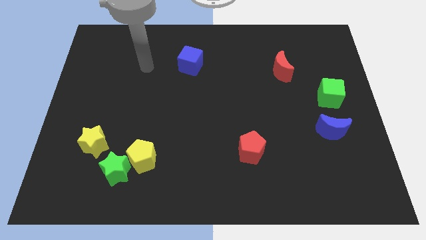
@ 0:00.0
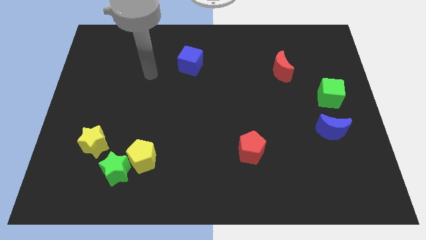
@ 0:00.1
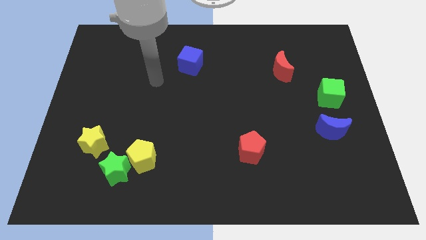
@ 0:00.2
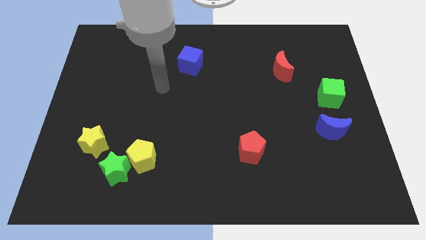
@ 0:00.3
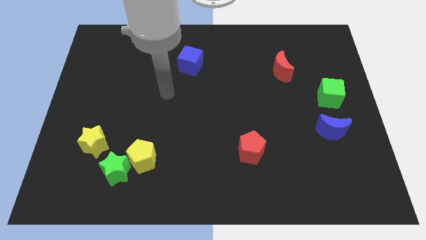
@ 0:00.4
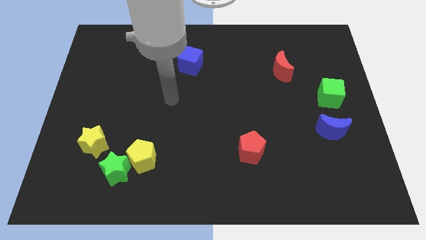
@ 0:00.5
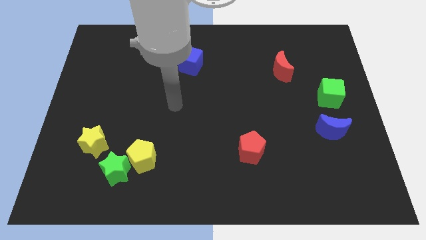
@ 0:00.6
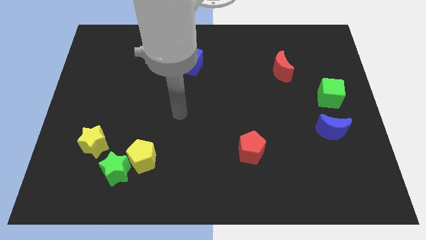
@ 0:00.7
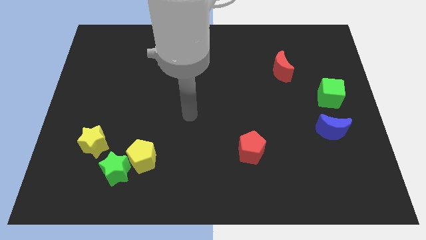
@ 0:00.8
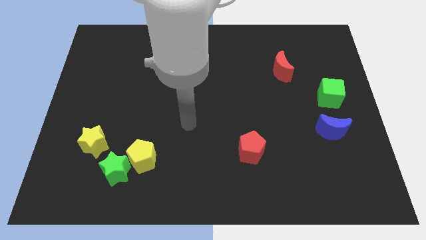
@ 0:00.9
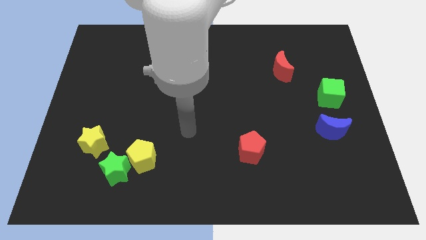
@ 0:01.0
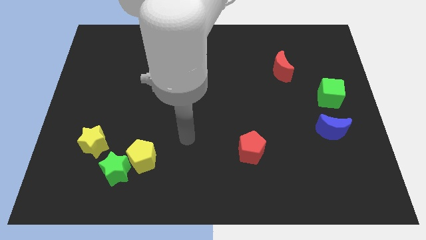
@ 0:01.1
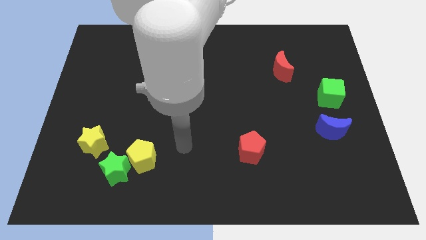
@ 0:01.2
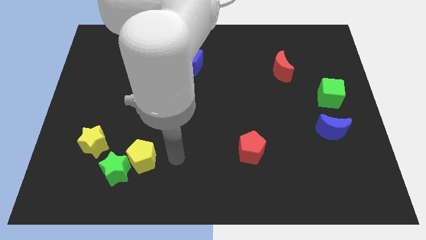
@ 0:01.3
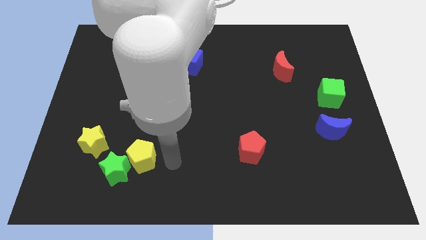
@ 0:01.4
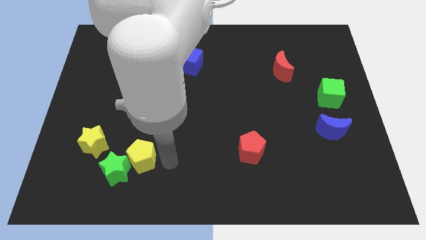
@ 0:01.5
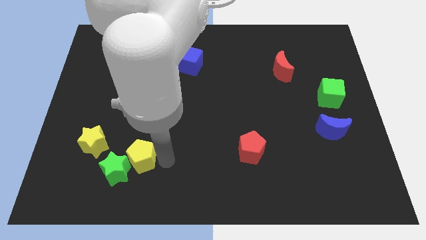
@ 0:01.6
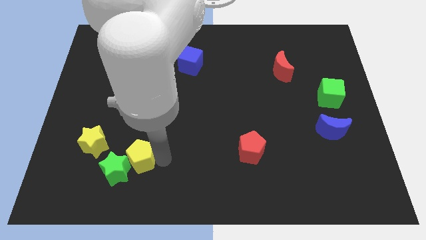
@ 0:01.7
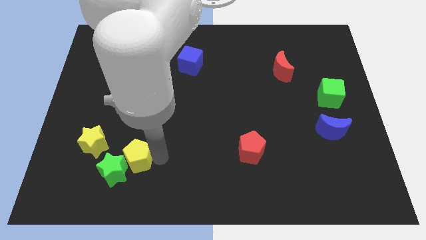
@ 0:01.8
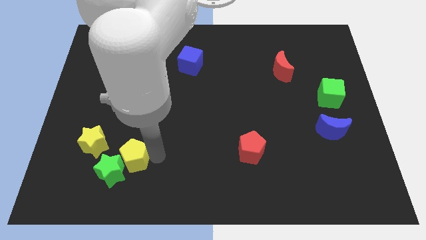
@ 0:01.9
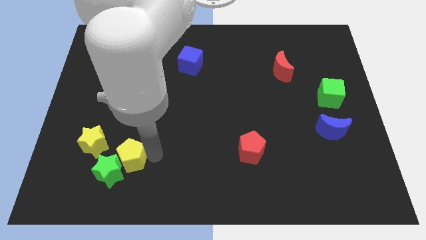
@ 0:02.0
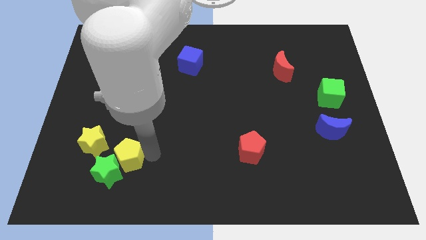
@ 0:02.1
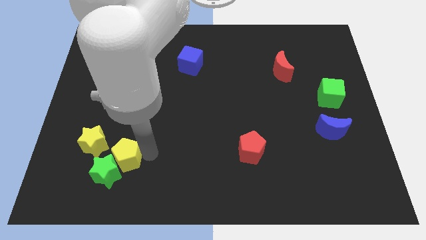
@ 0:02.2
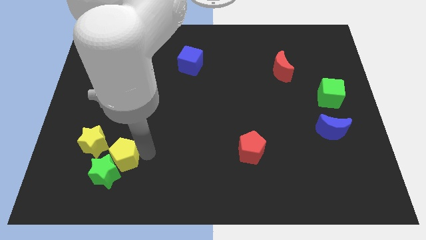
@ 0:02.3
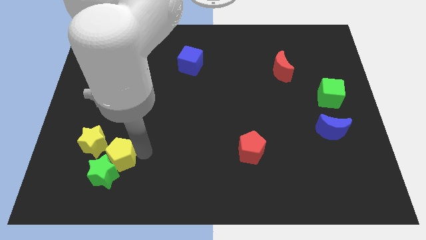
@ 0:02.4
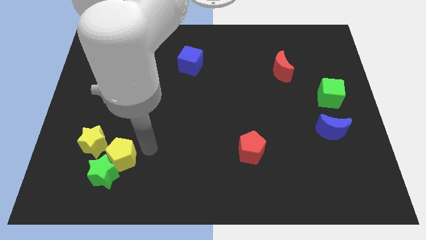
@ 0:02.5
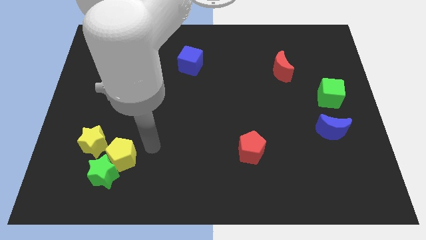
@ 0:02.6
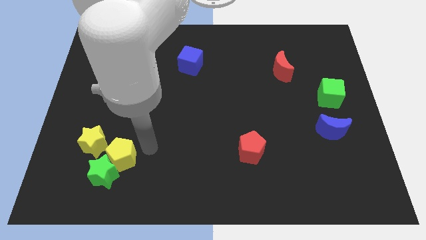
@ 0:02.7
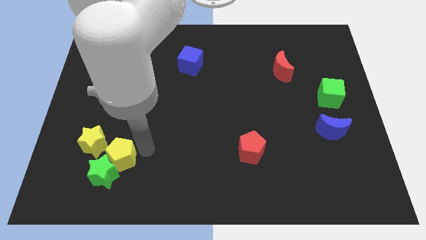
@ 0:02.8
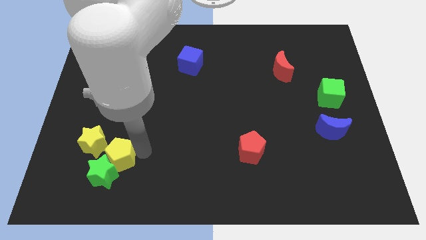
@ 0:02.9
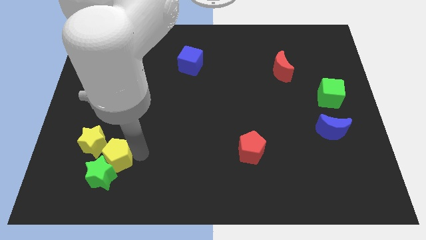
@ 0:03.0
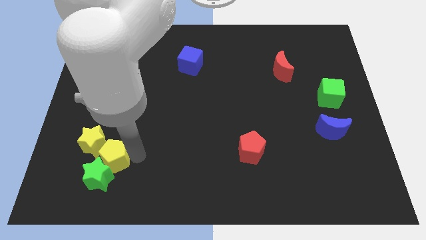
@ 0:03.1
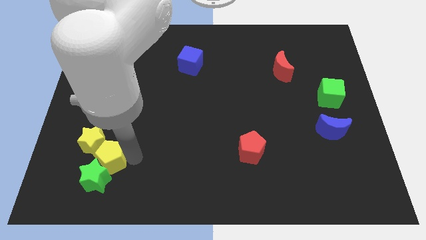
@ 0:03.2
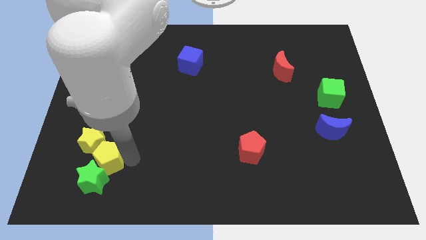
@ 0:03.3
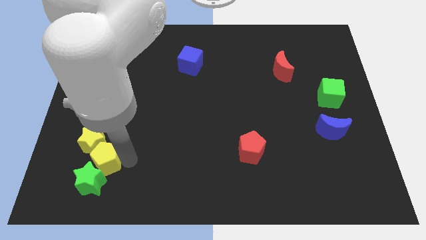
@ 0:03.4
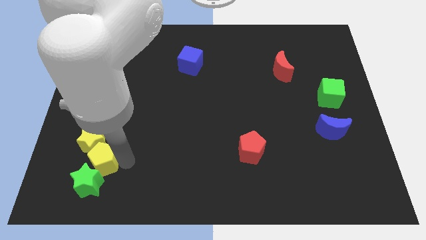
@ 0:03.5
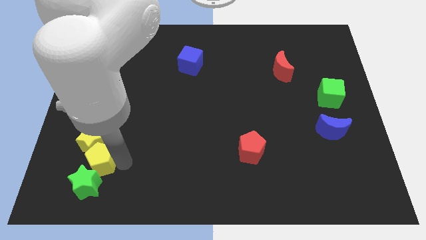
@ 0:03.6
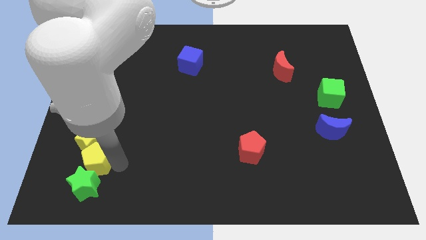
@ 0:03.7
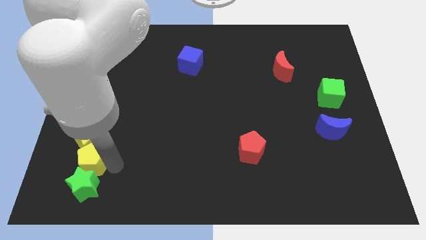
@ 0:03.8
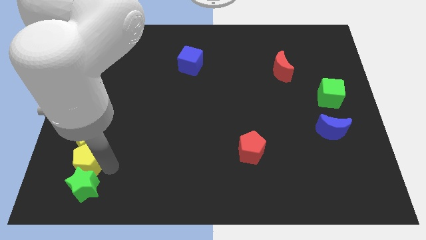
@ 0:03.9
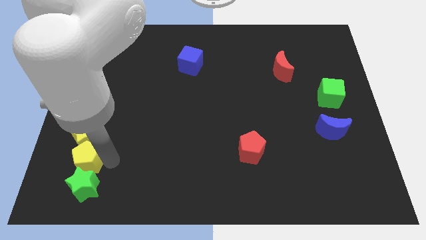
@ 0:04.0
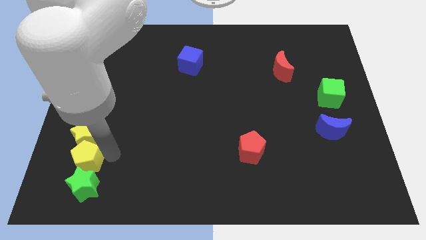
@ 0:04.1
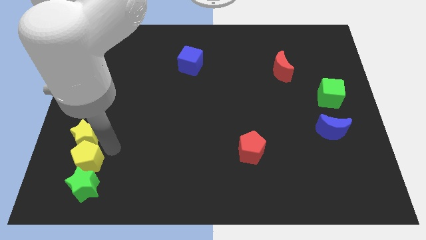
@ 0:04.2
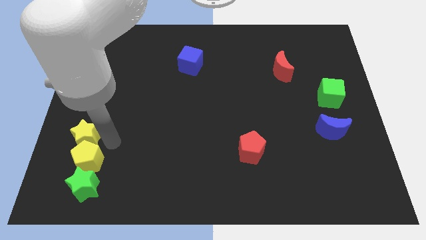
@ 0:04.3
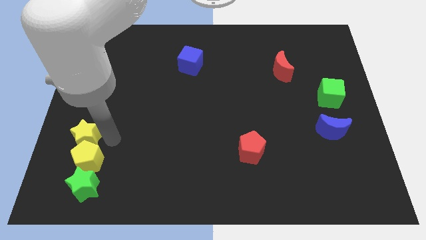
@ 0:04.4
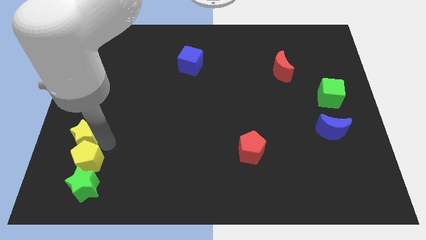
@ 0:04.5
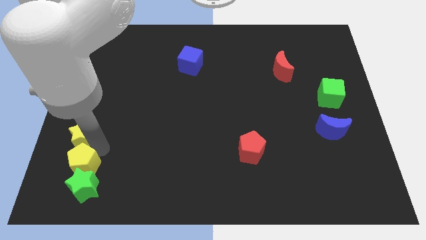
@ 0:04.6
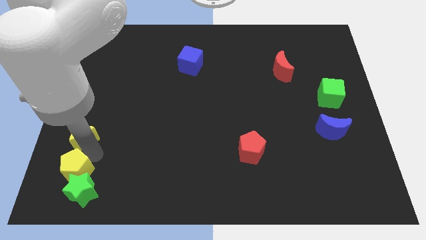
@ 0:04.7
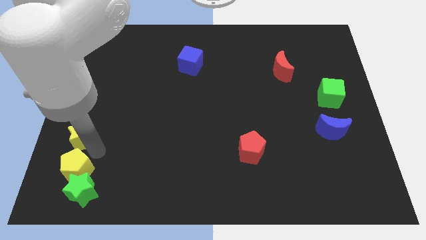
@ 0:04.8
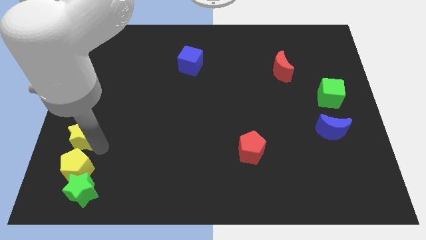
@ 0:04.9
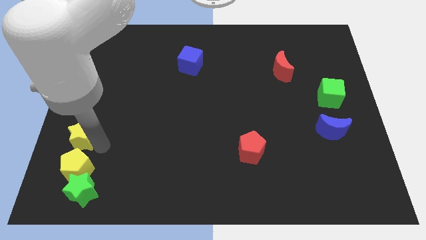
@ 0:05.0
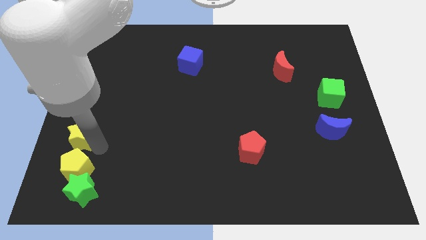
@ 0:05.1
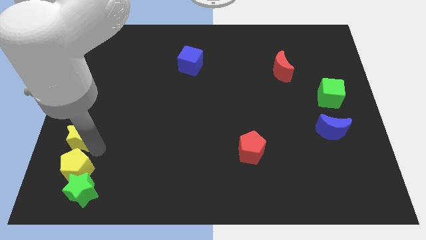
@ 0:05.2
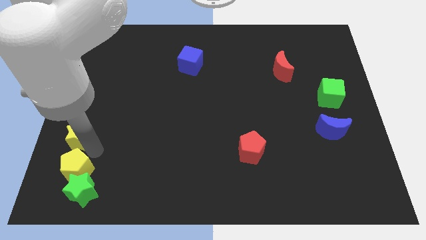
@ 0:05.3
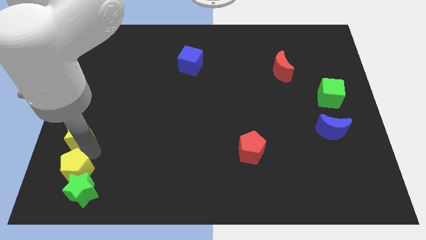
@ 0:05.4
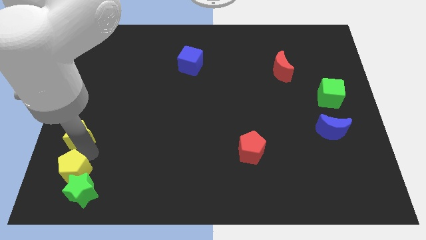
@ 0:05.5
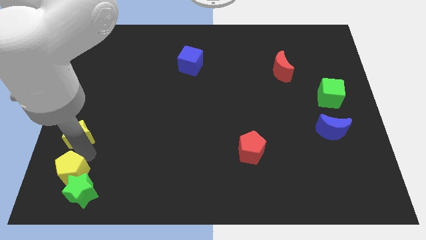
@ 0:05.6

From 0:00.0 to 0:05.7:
slide the yellow pentagon to the bottom left

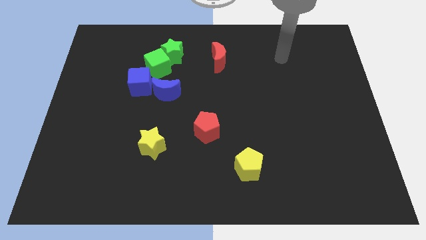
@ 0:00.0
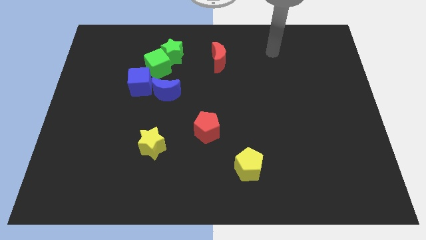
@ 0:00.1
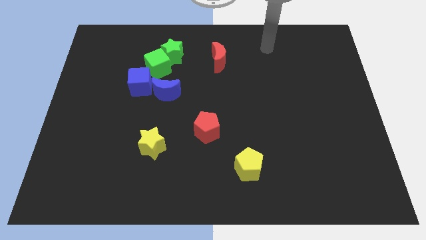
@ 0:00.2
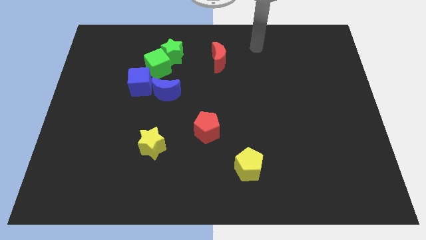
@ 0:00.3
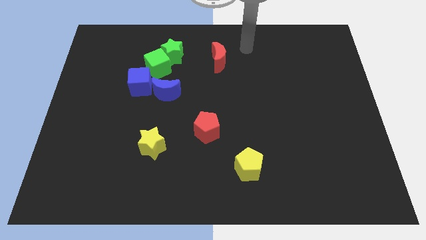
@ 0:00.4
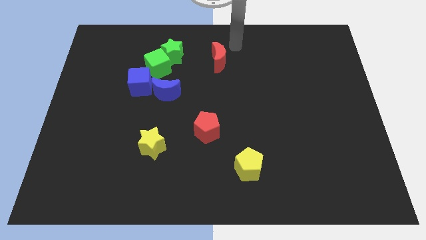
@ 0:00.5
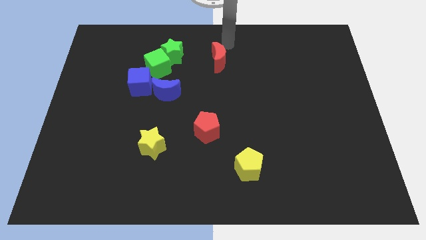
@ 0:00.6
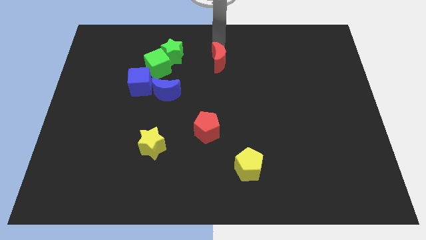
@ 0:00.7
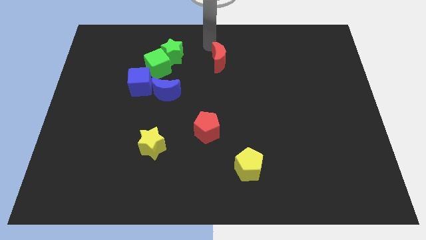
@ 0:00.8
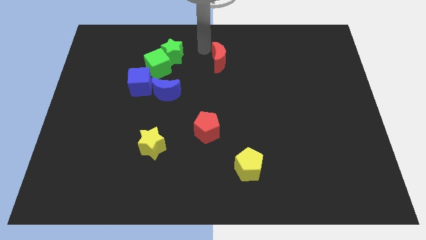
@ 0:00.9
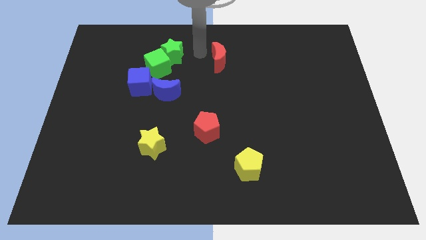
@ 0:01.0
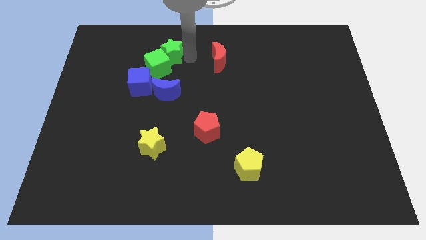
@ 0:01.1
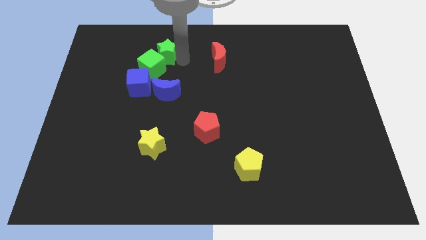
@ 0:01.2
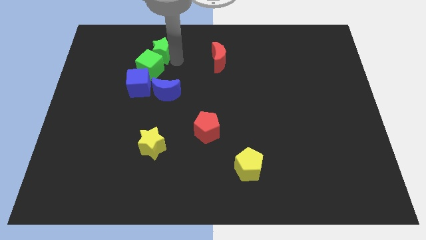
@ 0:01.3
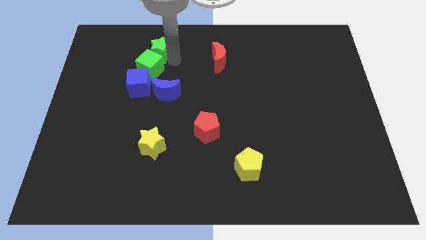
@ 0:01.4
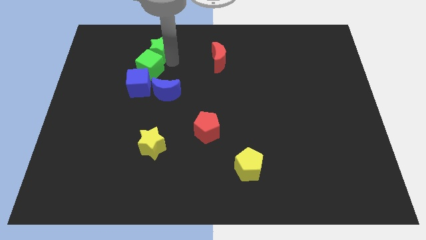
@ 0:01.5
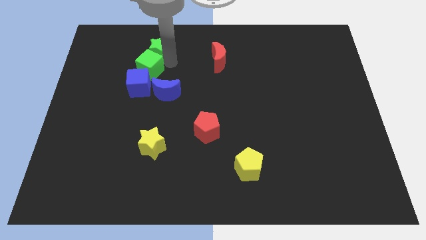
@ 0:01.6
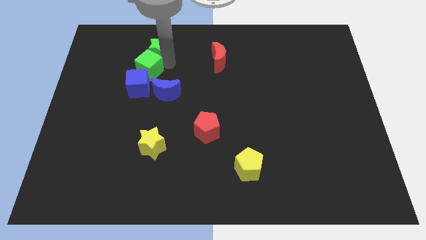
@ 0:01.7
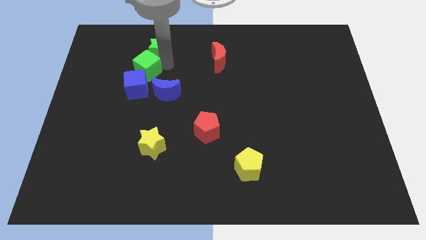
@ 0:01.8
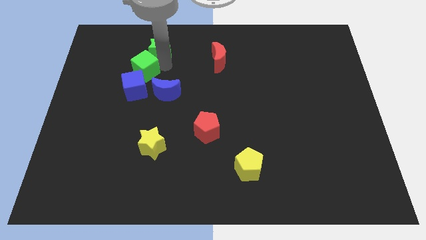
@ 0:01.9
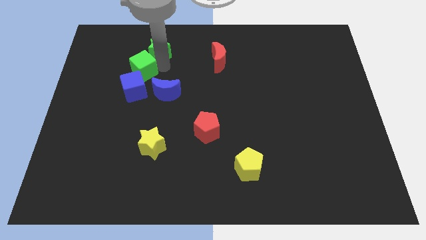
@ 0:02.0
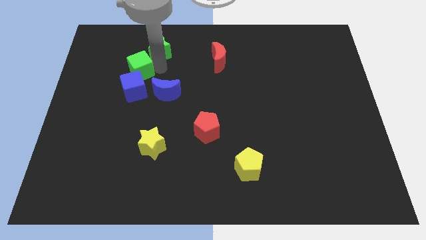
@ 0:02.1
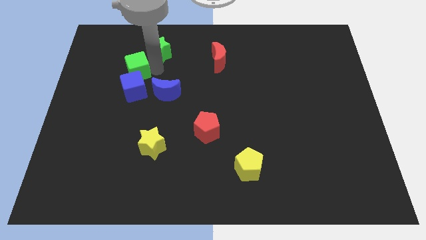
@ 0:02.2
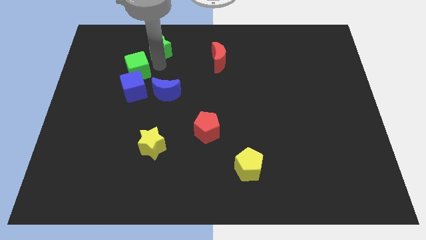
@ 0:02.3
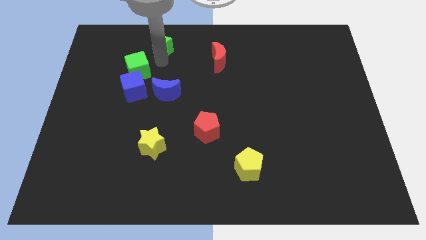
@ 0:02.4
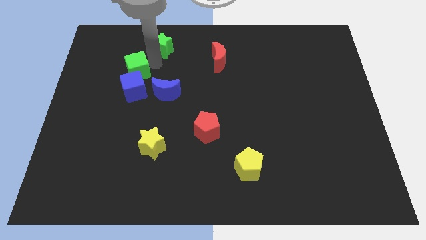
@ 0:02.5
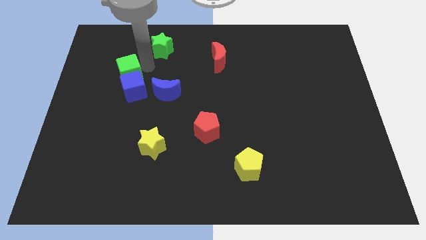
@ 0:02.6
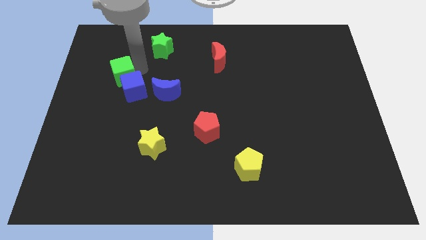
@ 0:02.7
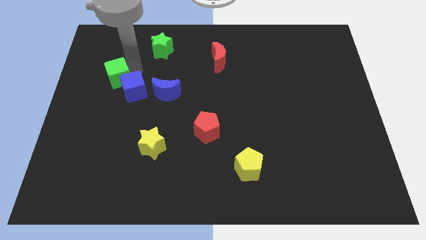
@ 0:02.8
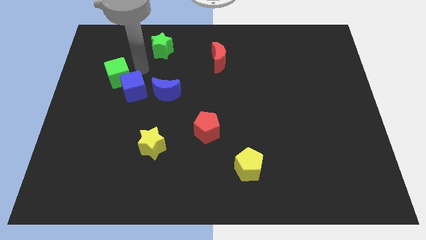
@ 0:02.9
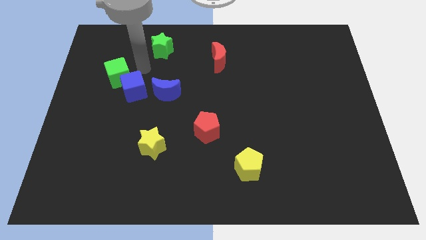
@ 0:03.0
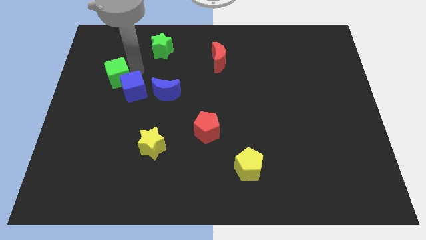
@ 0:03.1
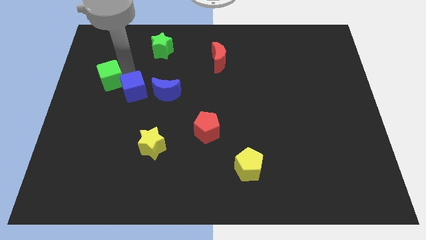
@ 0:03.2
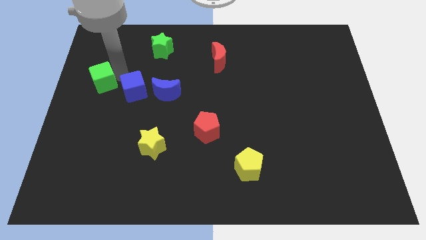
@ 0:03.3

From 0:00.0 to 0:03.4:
push the green cube to the left side of the board
